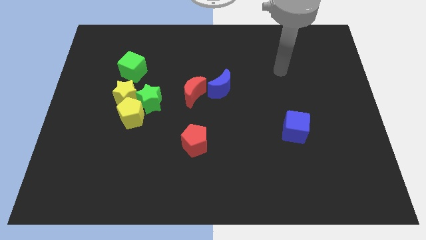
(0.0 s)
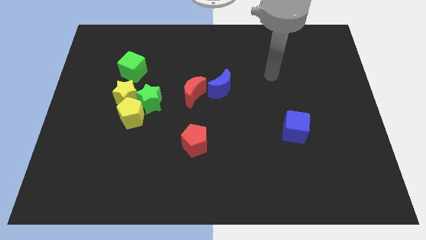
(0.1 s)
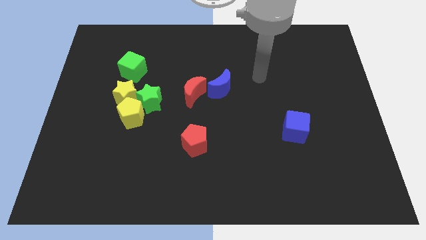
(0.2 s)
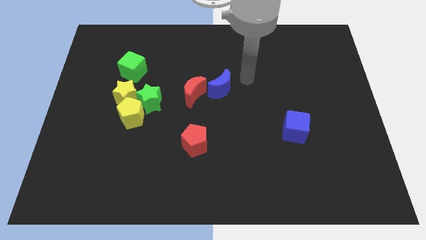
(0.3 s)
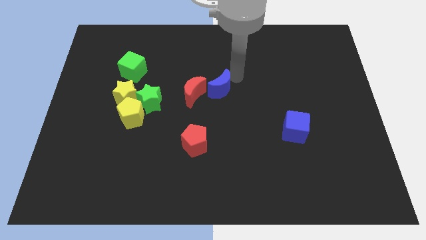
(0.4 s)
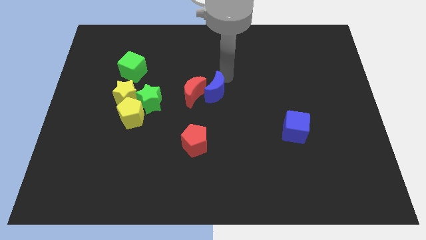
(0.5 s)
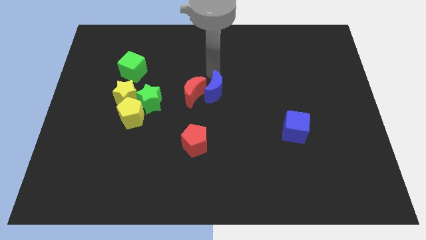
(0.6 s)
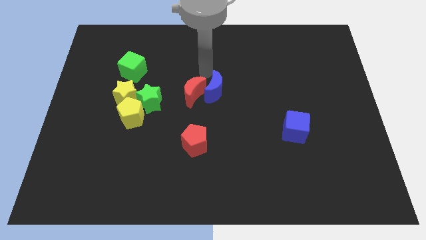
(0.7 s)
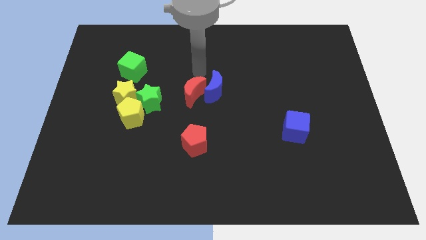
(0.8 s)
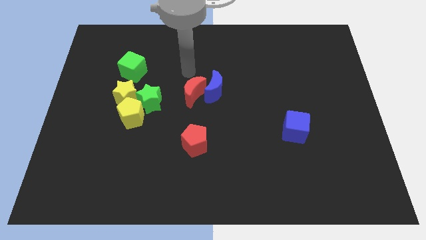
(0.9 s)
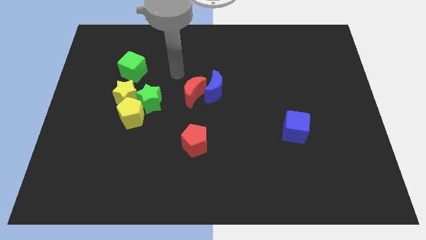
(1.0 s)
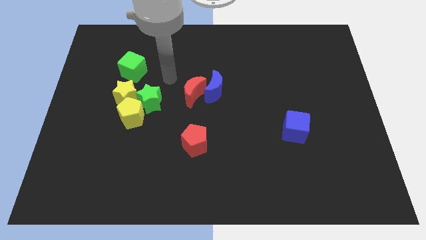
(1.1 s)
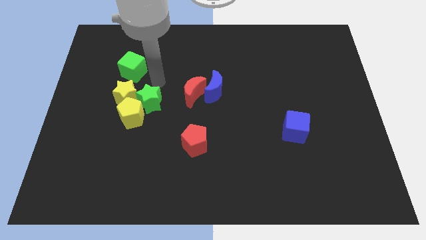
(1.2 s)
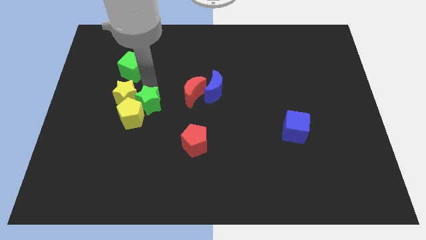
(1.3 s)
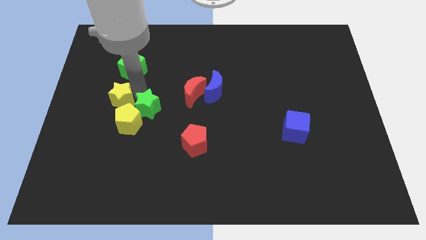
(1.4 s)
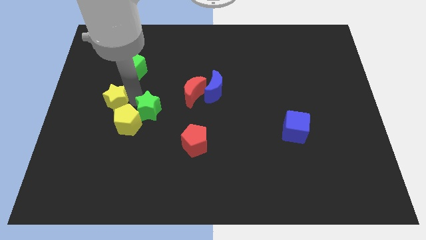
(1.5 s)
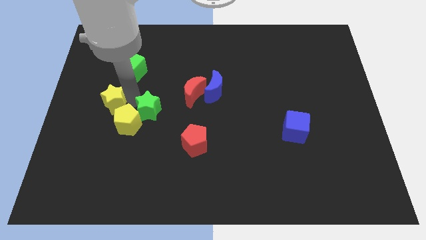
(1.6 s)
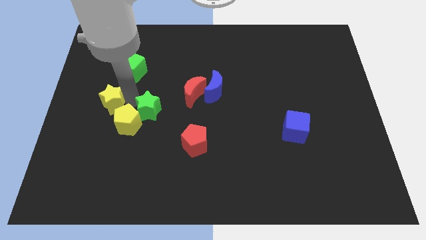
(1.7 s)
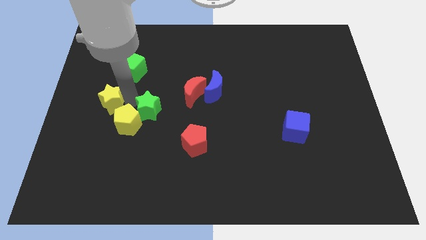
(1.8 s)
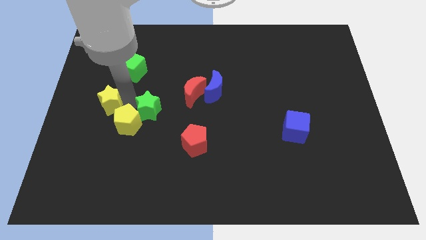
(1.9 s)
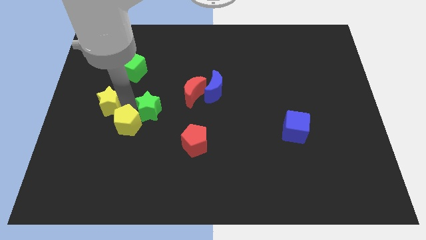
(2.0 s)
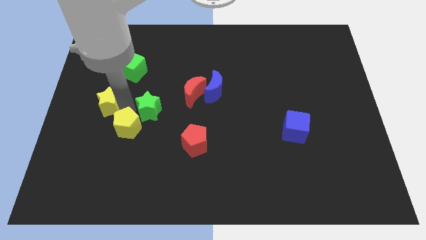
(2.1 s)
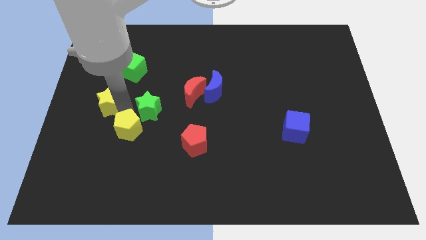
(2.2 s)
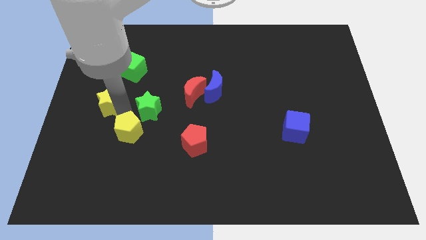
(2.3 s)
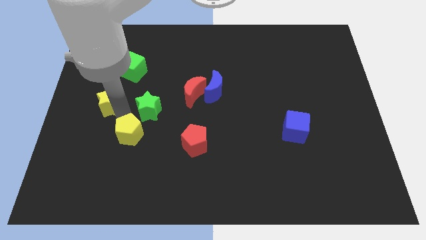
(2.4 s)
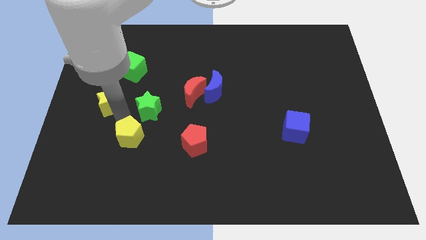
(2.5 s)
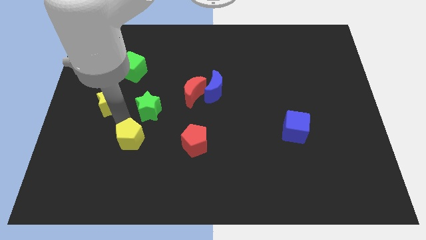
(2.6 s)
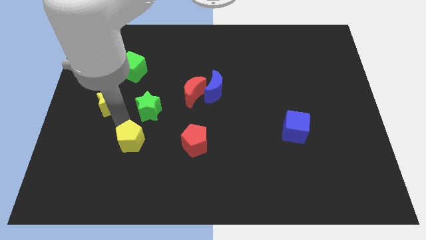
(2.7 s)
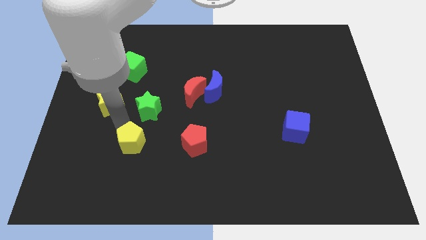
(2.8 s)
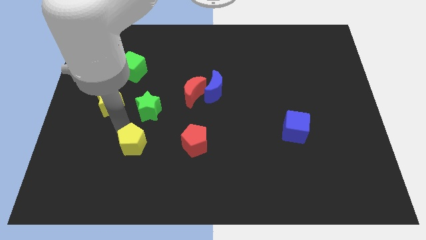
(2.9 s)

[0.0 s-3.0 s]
pull the yellow pentagon apart from the green star and yellow star

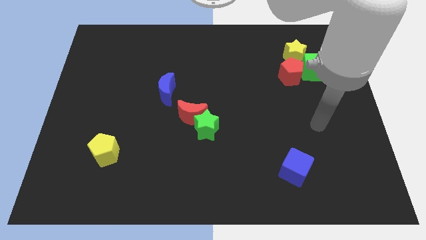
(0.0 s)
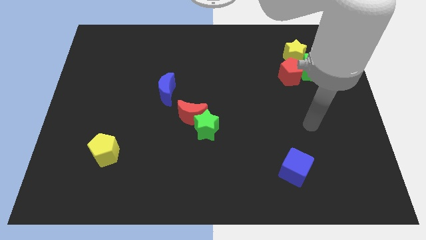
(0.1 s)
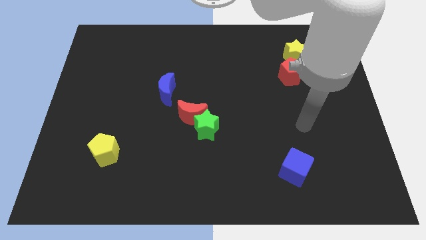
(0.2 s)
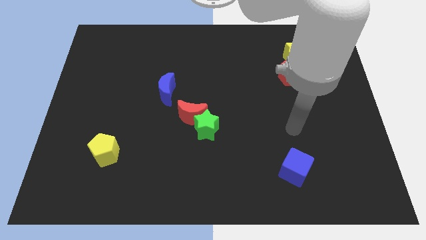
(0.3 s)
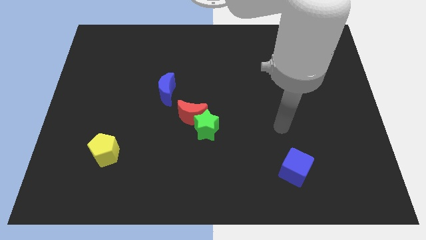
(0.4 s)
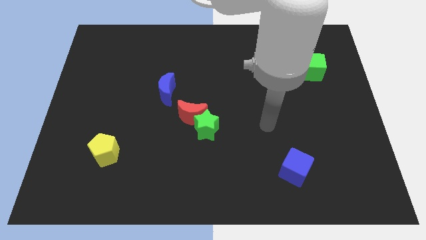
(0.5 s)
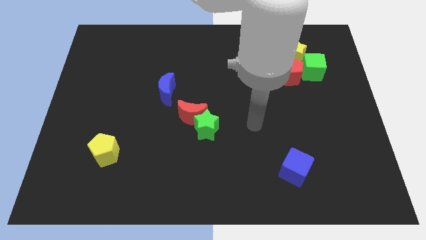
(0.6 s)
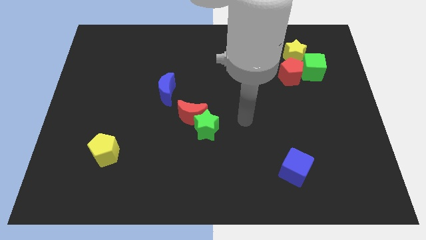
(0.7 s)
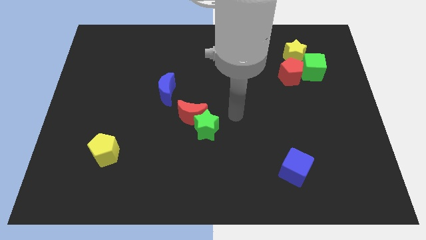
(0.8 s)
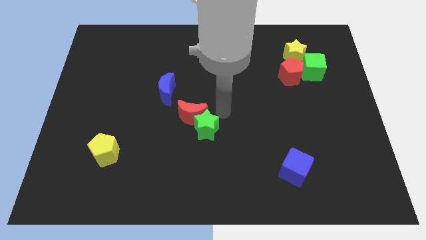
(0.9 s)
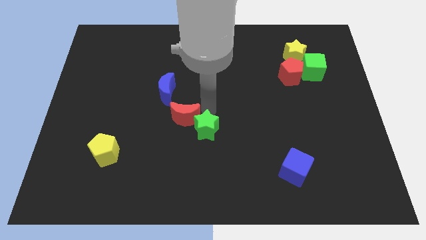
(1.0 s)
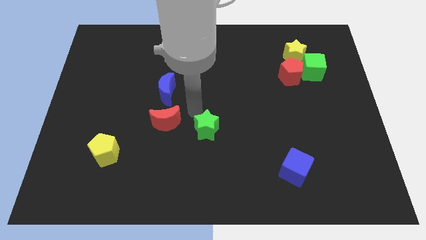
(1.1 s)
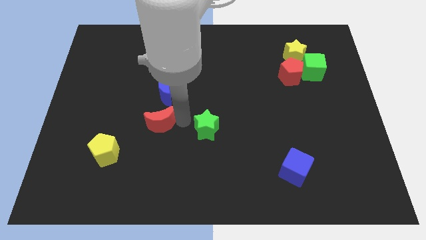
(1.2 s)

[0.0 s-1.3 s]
move the green star away from the red moon

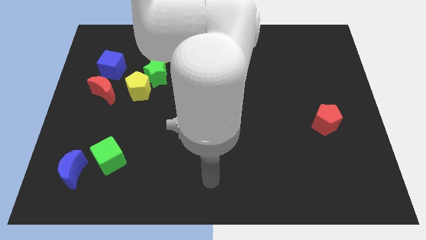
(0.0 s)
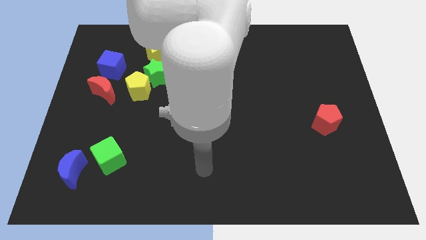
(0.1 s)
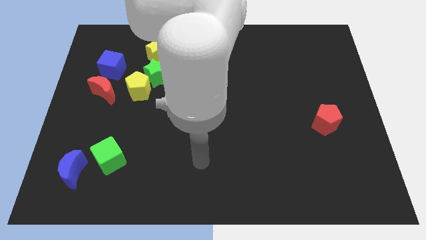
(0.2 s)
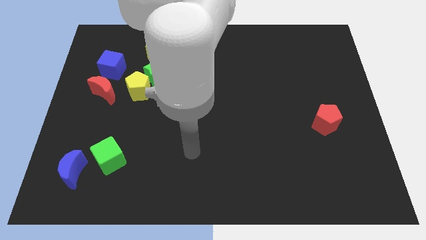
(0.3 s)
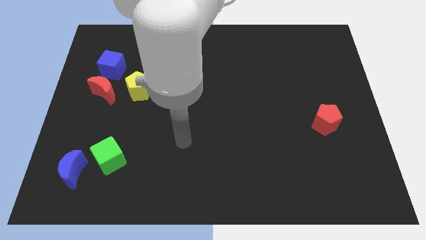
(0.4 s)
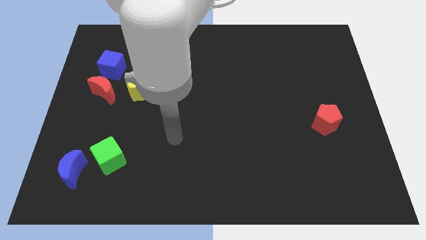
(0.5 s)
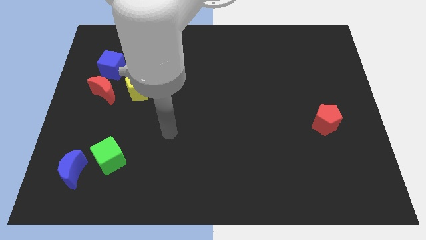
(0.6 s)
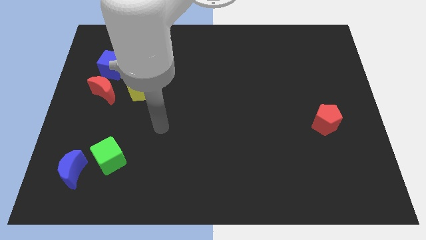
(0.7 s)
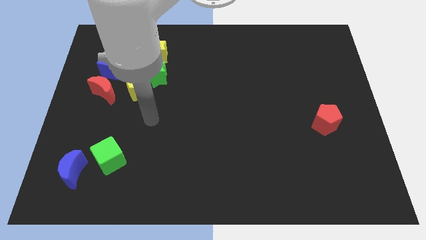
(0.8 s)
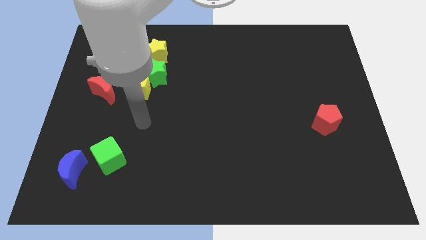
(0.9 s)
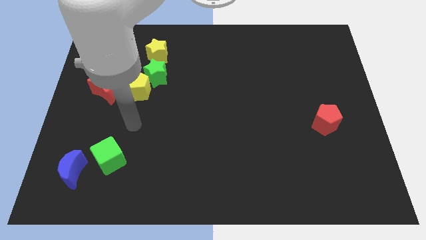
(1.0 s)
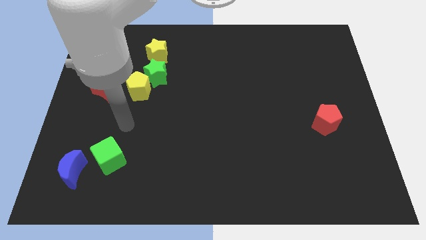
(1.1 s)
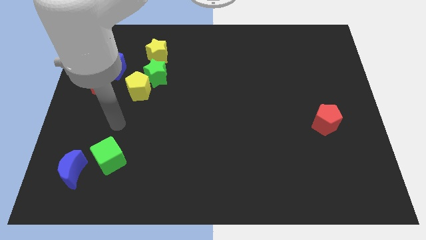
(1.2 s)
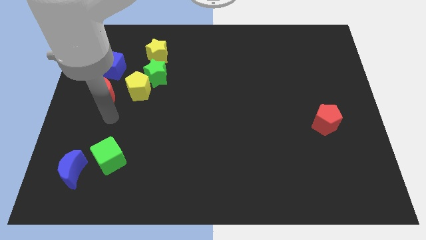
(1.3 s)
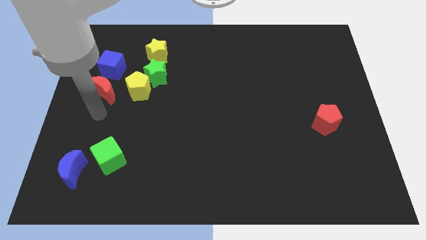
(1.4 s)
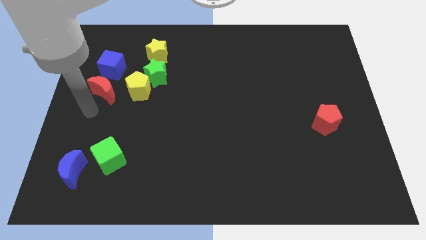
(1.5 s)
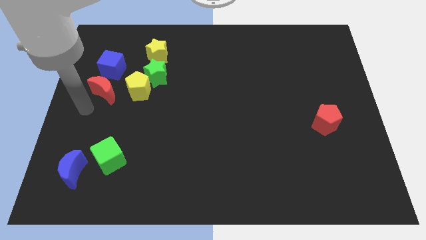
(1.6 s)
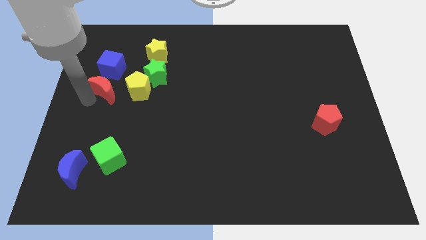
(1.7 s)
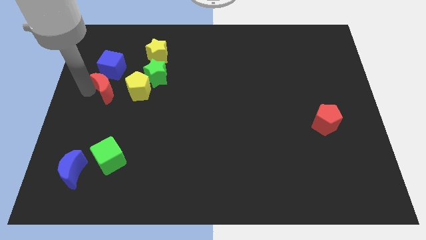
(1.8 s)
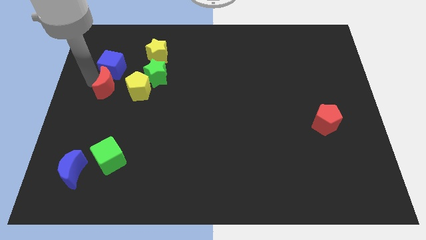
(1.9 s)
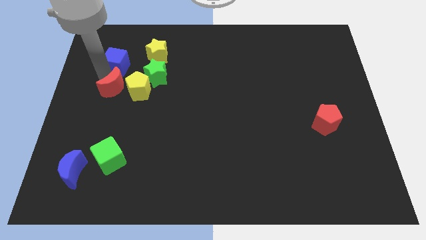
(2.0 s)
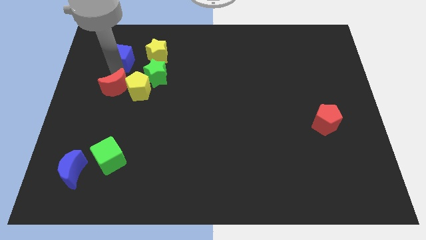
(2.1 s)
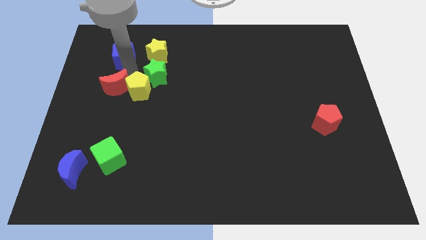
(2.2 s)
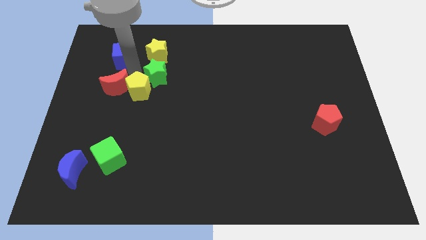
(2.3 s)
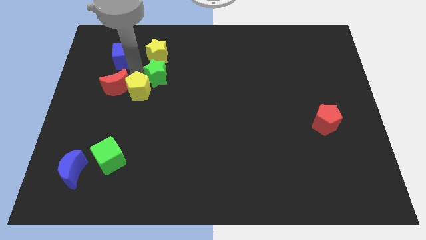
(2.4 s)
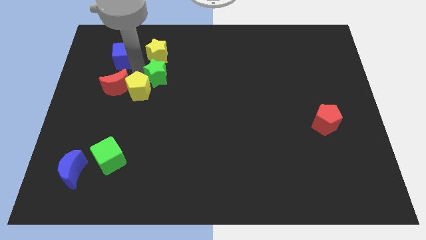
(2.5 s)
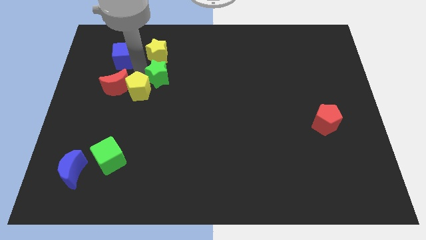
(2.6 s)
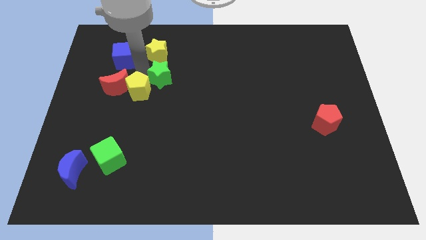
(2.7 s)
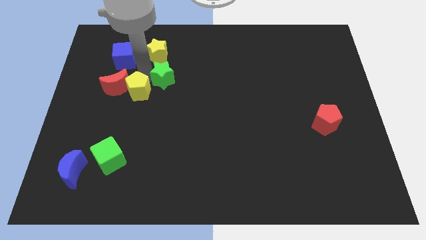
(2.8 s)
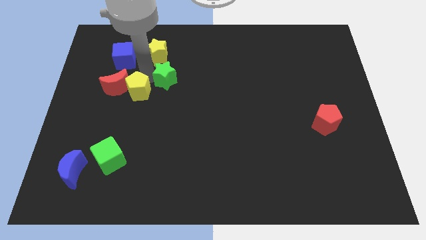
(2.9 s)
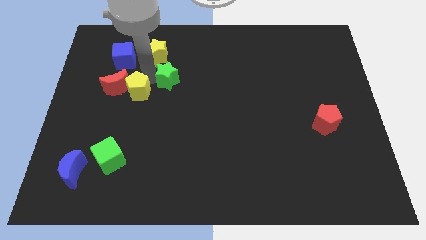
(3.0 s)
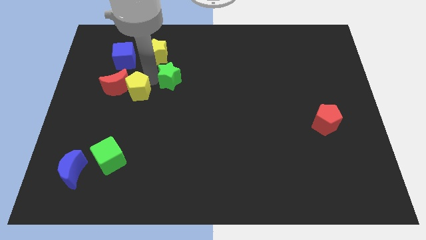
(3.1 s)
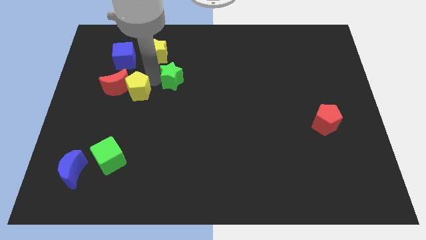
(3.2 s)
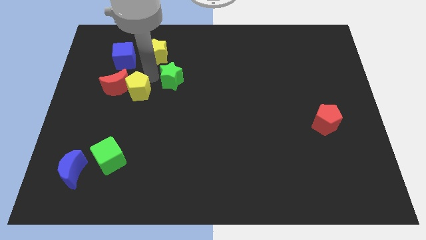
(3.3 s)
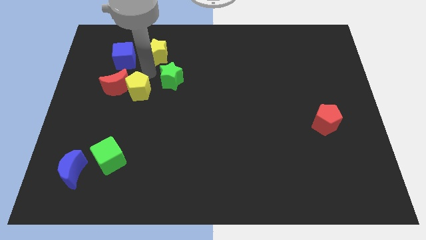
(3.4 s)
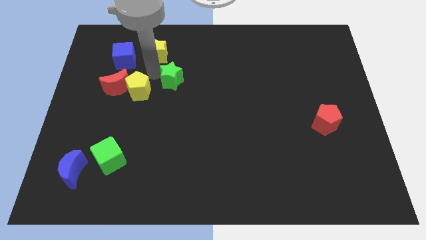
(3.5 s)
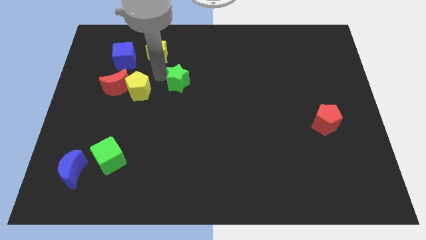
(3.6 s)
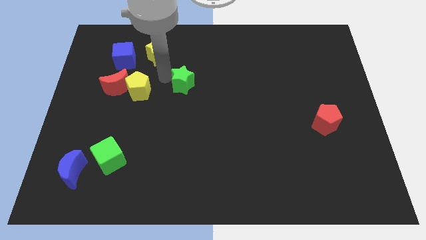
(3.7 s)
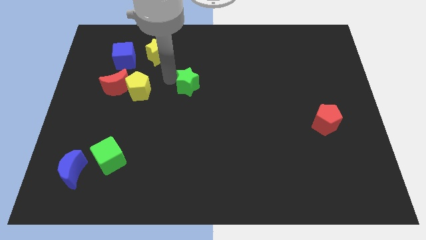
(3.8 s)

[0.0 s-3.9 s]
move the green star away from the yellow pentagon and yellow star

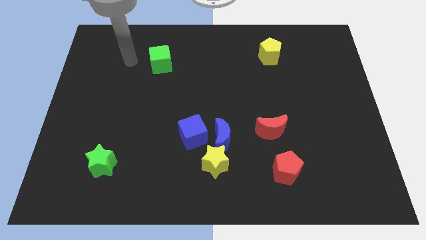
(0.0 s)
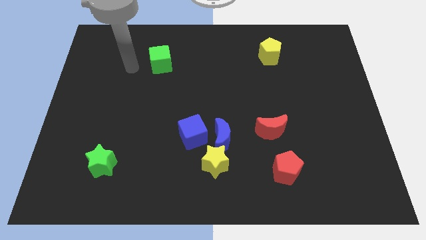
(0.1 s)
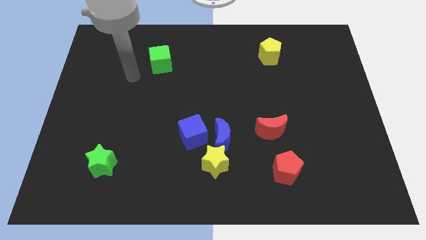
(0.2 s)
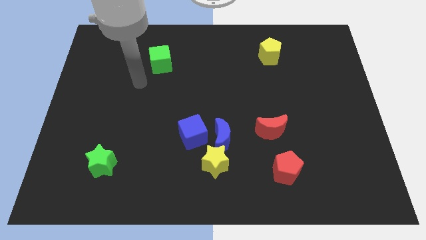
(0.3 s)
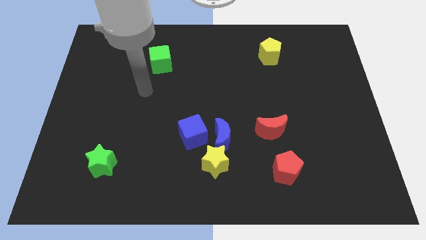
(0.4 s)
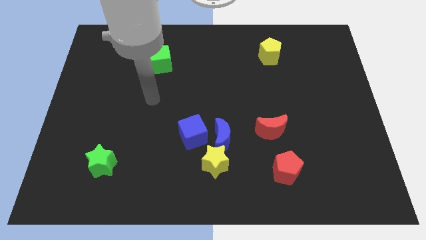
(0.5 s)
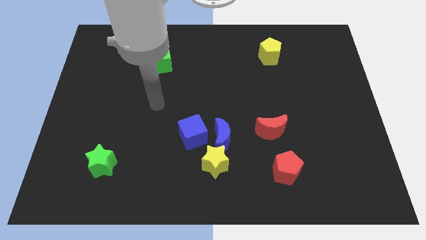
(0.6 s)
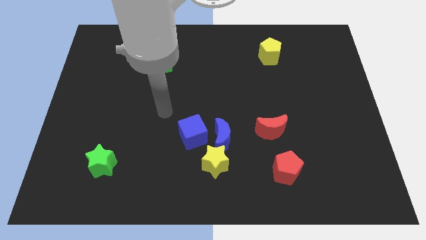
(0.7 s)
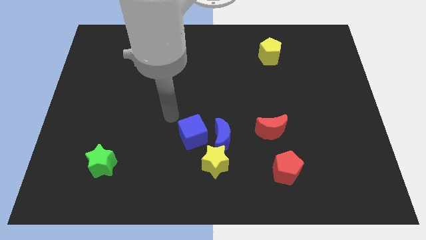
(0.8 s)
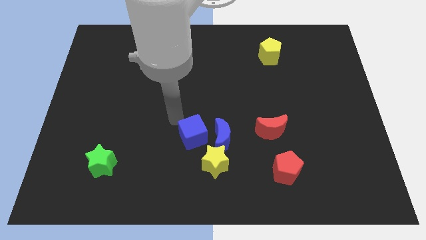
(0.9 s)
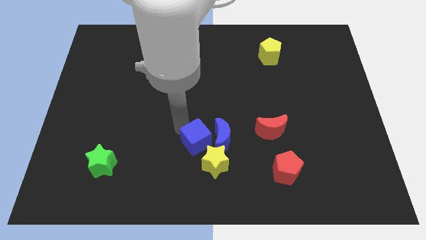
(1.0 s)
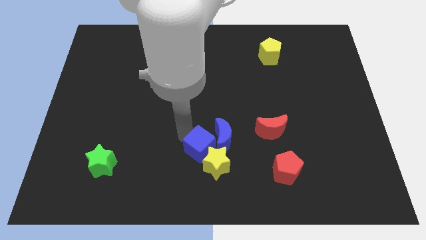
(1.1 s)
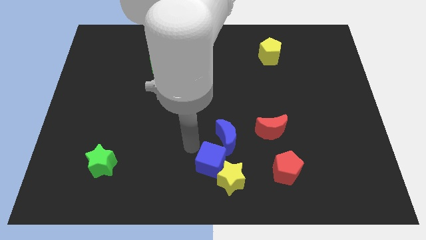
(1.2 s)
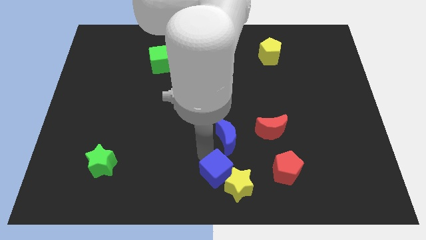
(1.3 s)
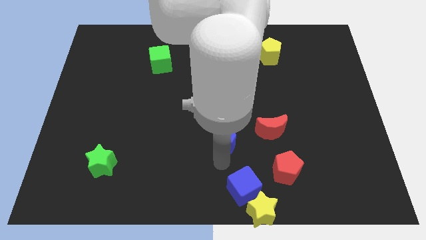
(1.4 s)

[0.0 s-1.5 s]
move the blue moon away from the yellow star and blue cube
